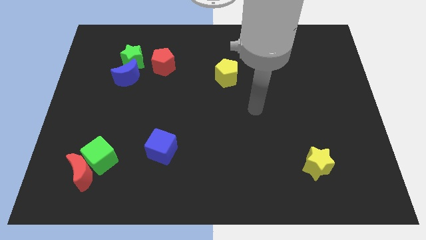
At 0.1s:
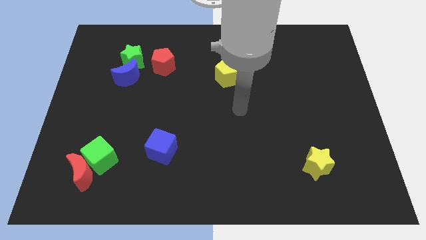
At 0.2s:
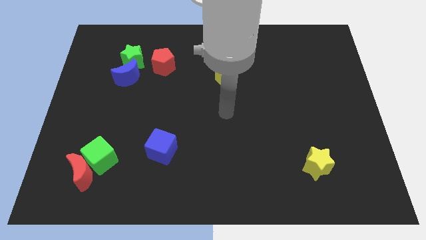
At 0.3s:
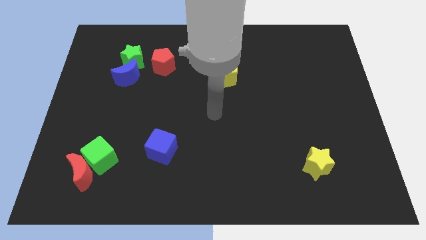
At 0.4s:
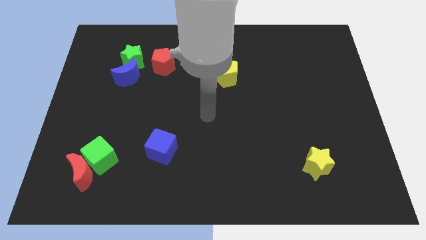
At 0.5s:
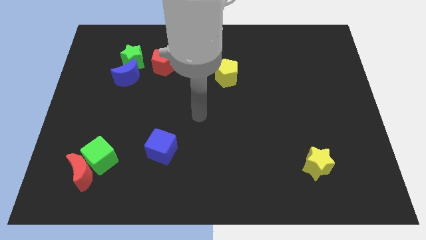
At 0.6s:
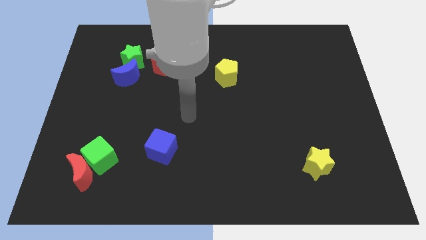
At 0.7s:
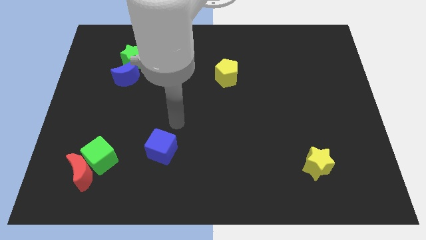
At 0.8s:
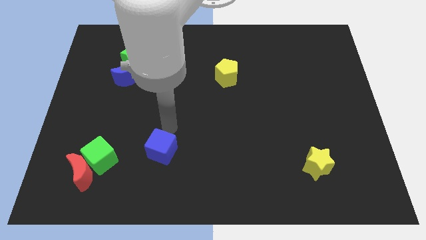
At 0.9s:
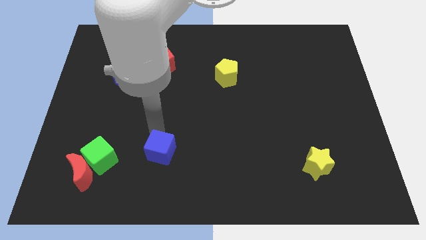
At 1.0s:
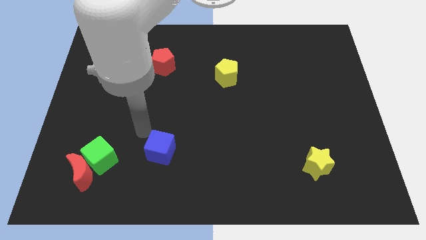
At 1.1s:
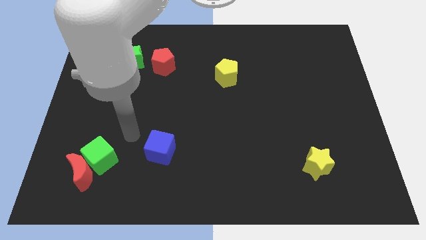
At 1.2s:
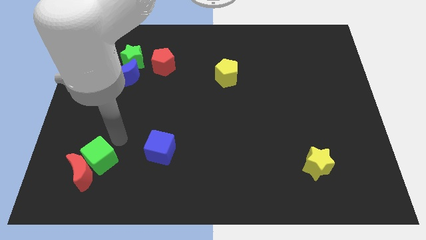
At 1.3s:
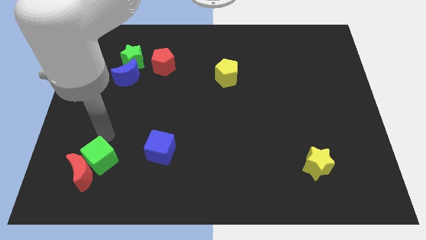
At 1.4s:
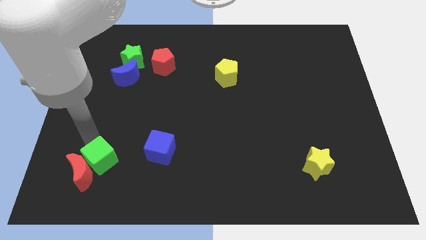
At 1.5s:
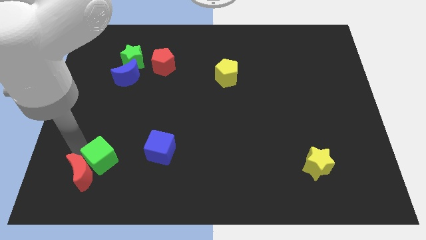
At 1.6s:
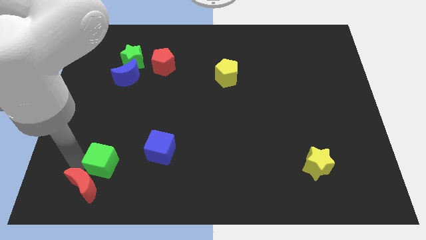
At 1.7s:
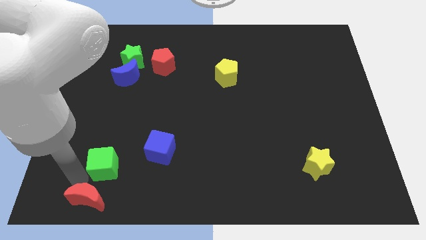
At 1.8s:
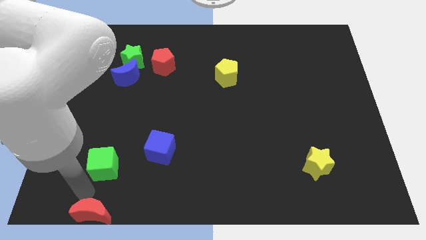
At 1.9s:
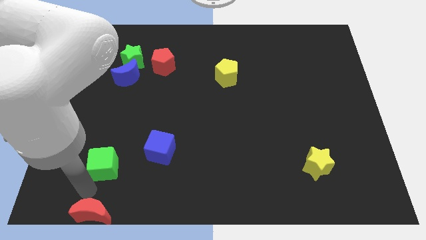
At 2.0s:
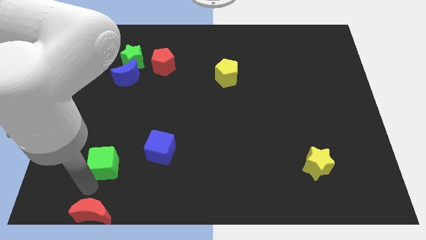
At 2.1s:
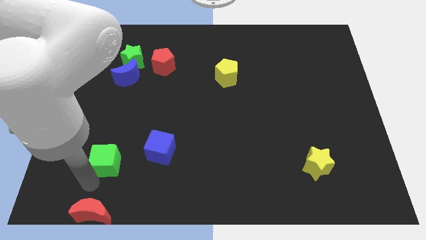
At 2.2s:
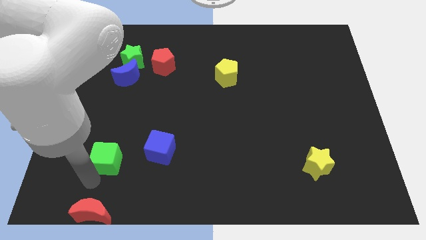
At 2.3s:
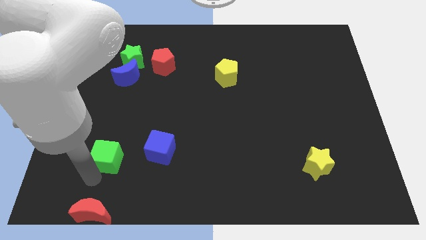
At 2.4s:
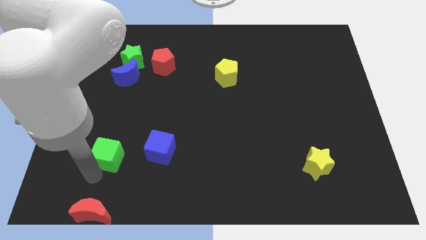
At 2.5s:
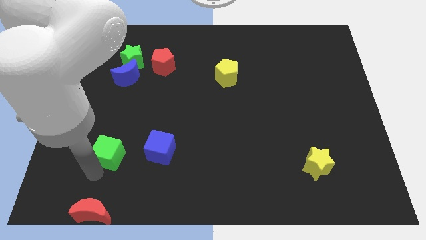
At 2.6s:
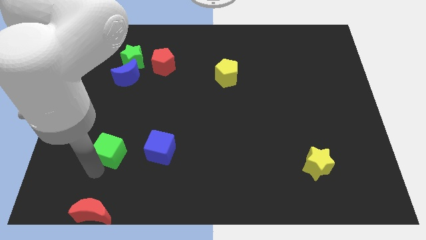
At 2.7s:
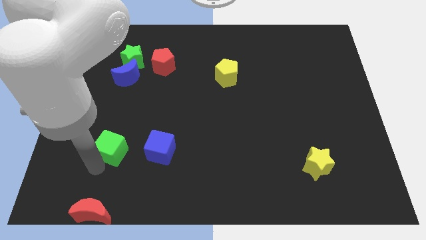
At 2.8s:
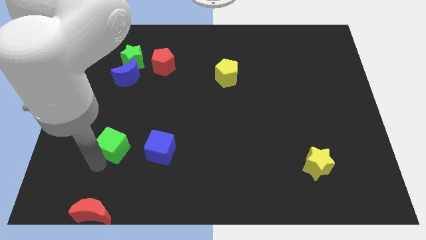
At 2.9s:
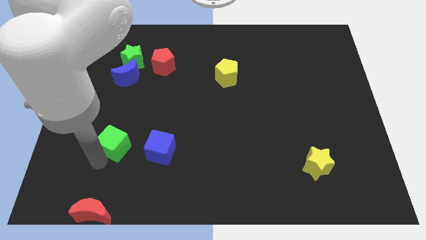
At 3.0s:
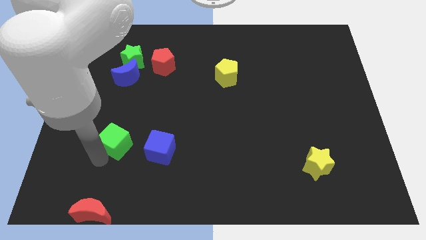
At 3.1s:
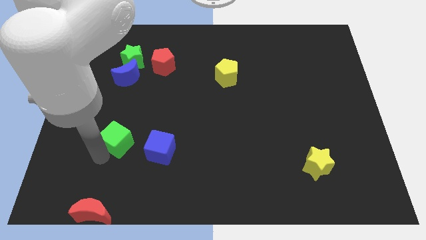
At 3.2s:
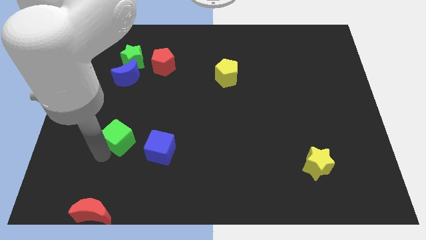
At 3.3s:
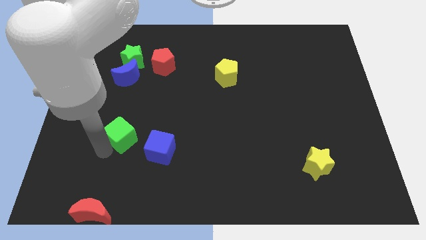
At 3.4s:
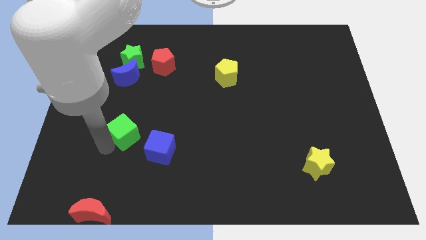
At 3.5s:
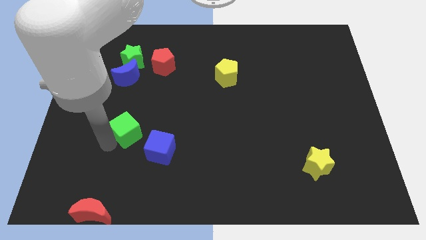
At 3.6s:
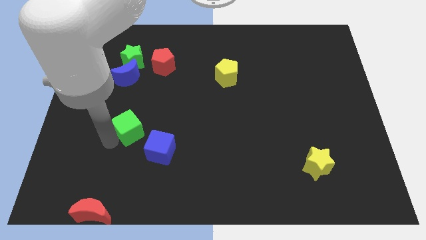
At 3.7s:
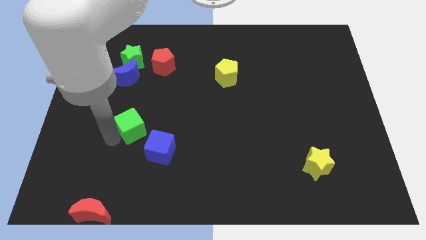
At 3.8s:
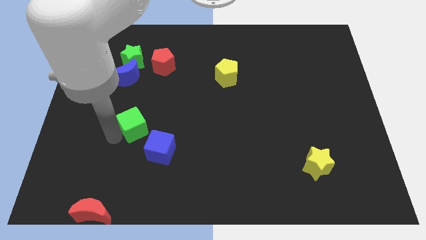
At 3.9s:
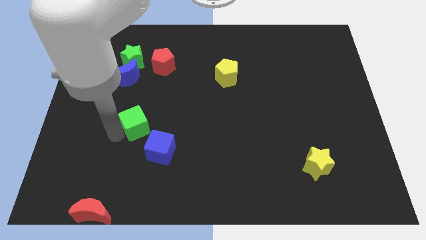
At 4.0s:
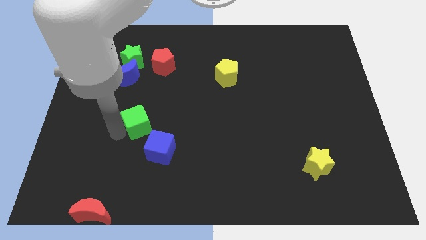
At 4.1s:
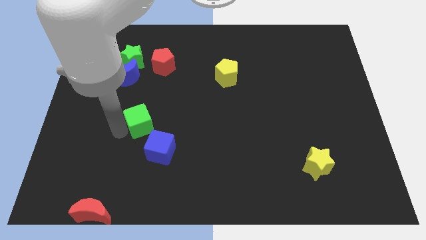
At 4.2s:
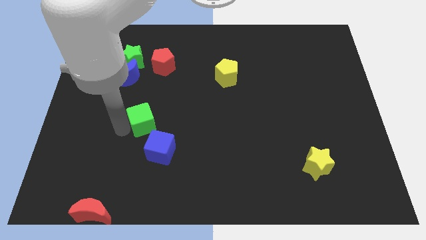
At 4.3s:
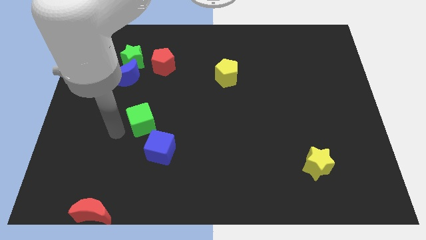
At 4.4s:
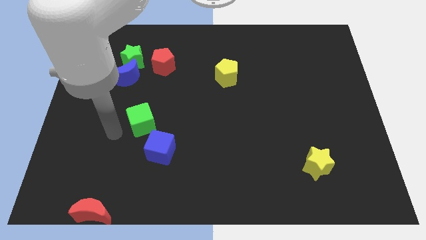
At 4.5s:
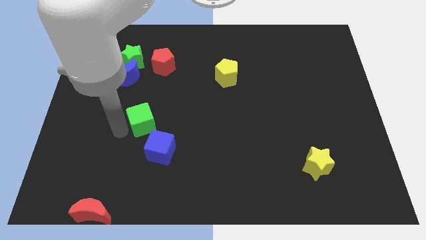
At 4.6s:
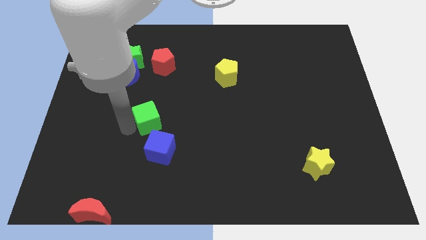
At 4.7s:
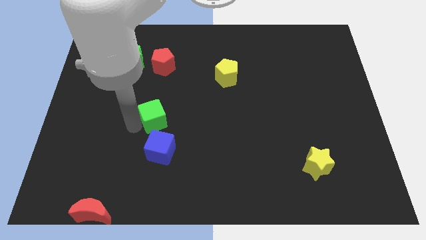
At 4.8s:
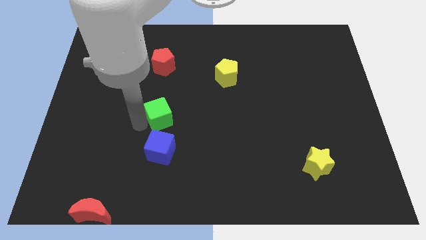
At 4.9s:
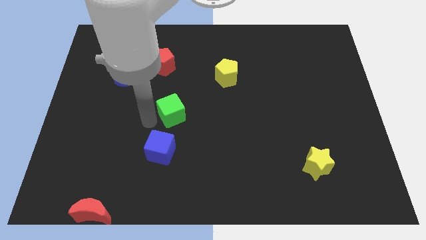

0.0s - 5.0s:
move the green cube to the center

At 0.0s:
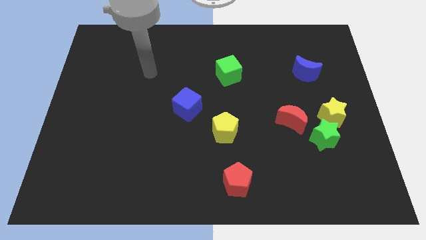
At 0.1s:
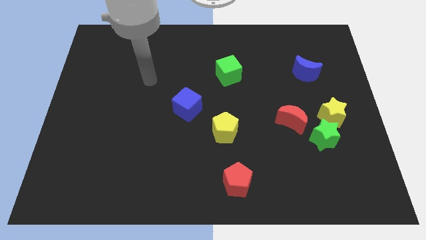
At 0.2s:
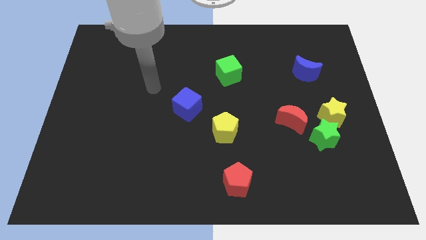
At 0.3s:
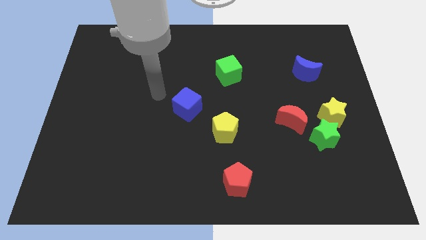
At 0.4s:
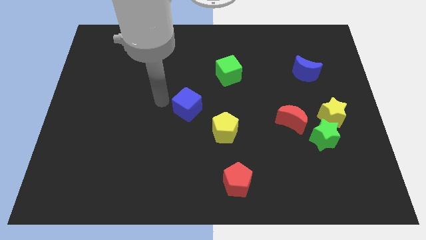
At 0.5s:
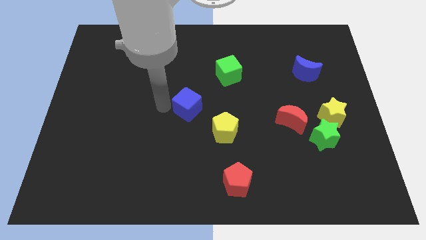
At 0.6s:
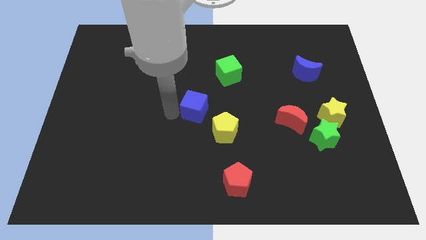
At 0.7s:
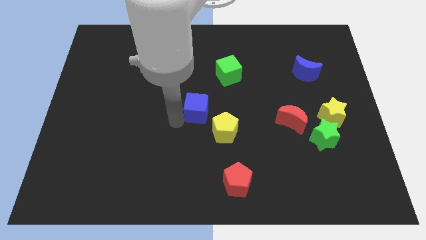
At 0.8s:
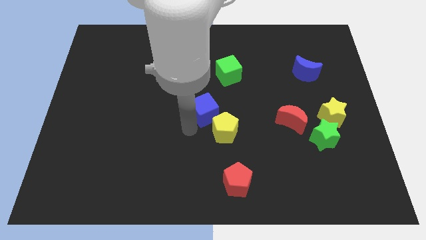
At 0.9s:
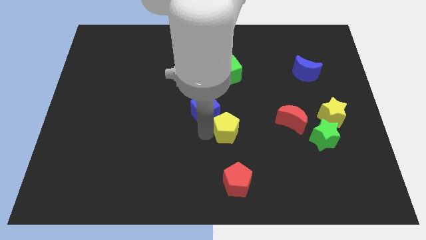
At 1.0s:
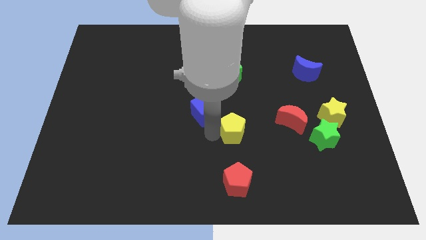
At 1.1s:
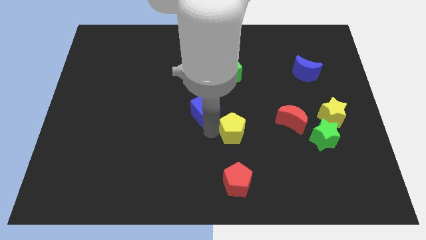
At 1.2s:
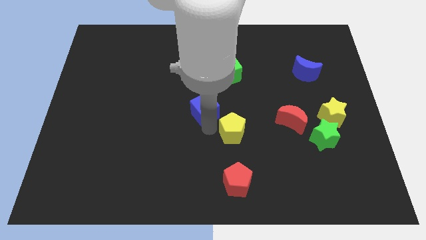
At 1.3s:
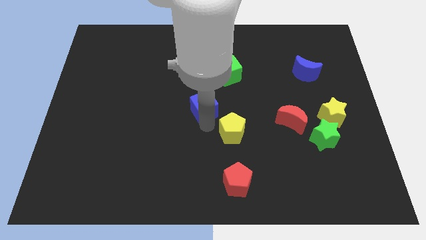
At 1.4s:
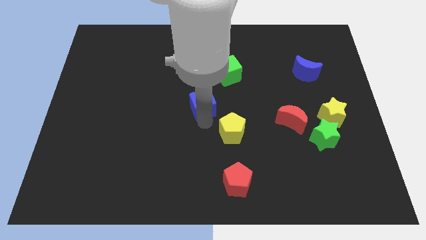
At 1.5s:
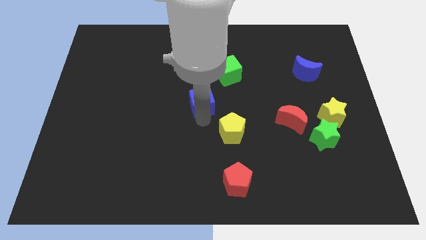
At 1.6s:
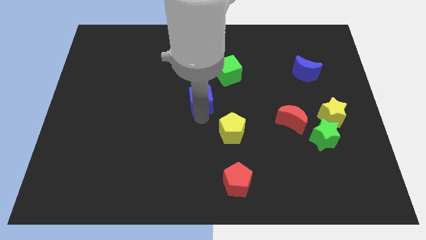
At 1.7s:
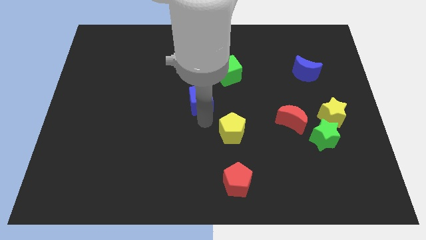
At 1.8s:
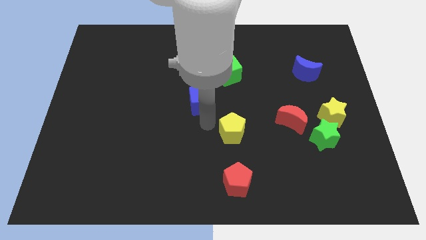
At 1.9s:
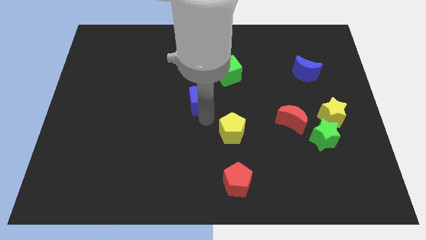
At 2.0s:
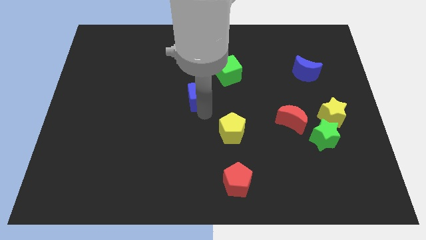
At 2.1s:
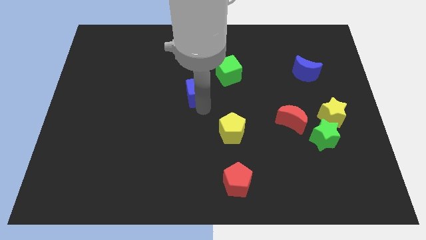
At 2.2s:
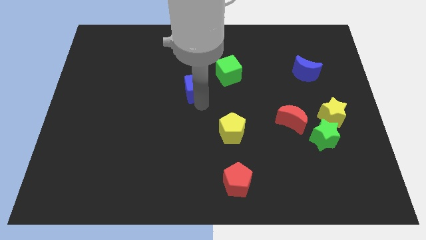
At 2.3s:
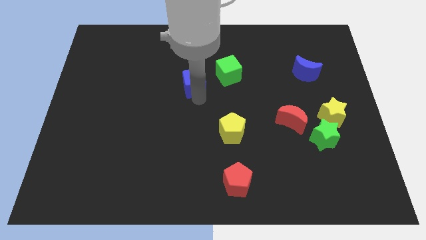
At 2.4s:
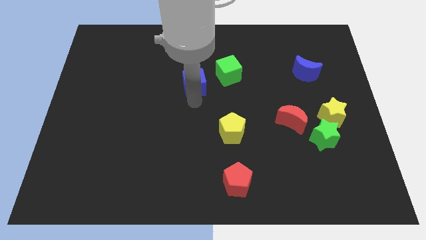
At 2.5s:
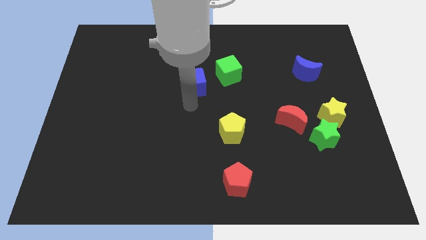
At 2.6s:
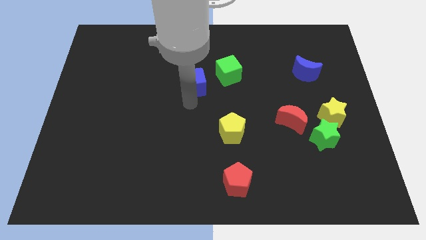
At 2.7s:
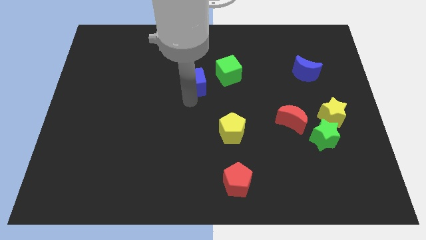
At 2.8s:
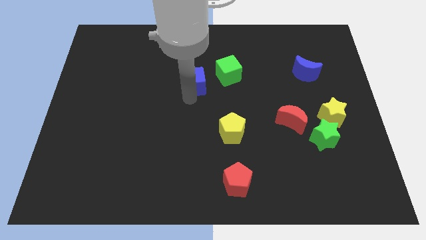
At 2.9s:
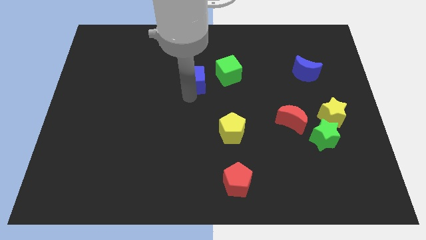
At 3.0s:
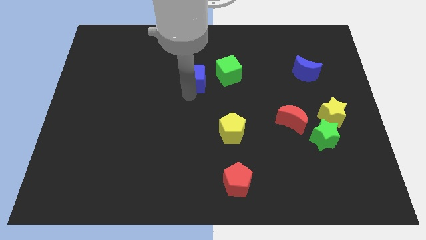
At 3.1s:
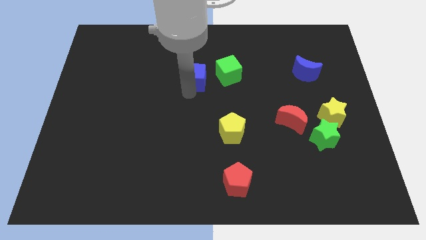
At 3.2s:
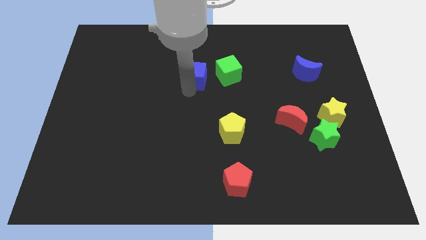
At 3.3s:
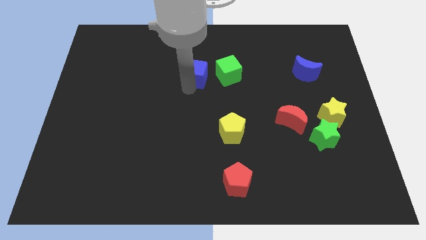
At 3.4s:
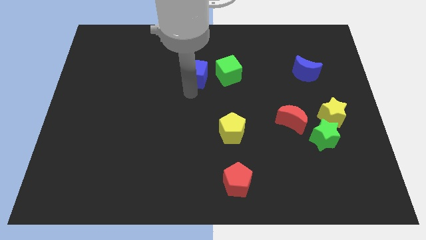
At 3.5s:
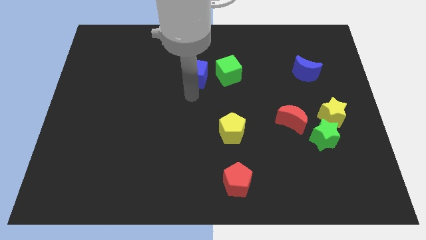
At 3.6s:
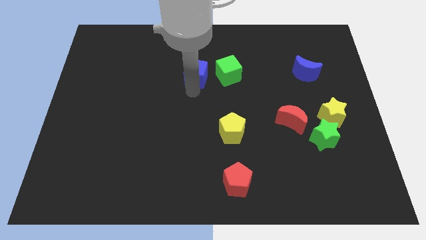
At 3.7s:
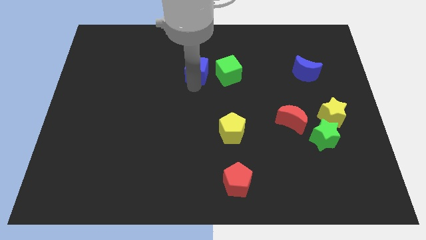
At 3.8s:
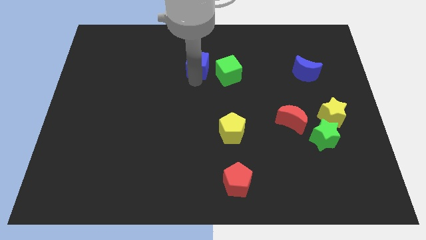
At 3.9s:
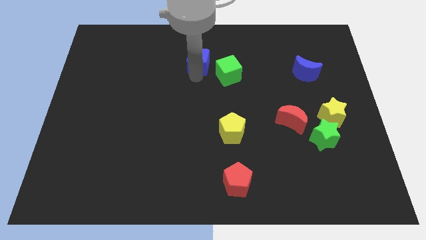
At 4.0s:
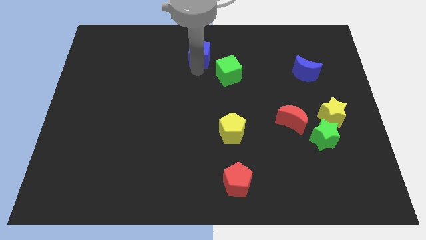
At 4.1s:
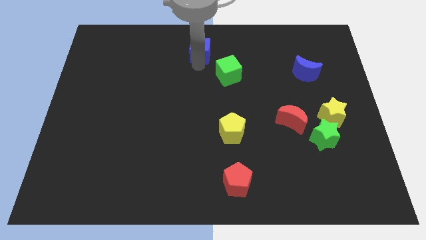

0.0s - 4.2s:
put the blue cube to the towards your base
